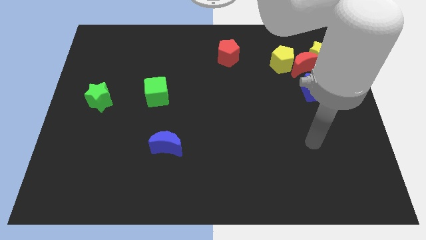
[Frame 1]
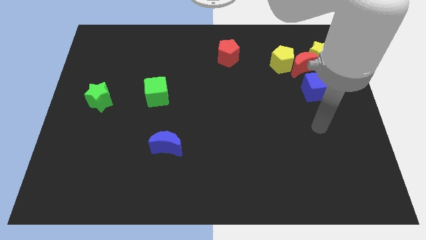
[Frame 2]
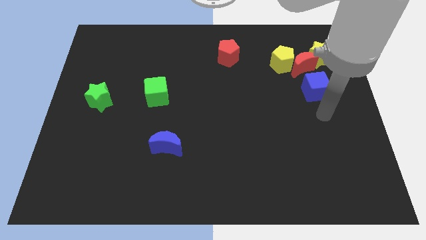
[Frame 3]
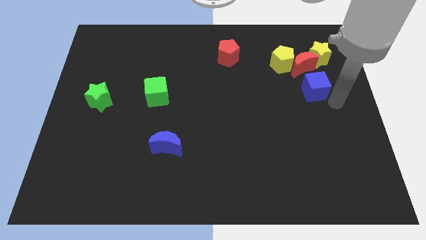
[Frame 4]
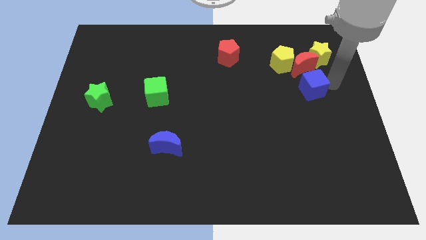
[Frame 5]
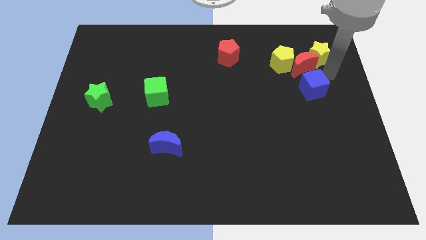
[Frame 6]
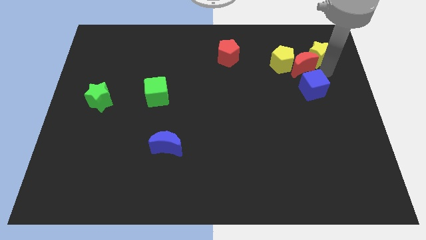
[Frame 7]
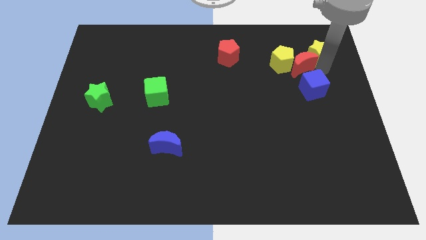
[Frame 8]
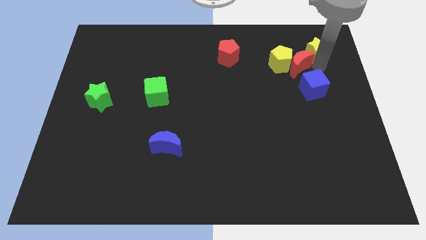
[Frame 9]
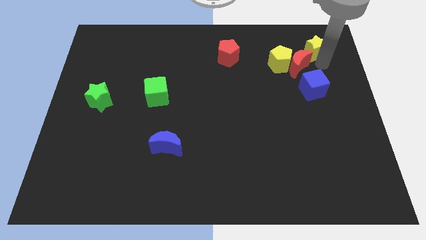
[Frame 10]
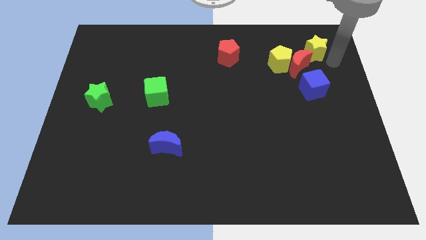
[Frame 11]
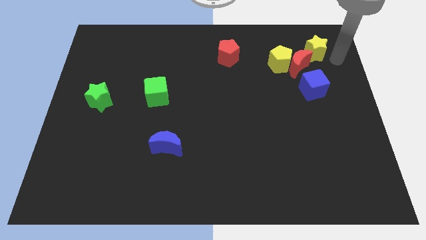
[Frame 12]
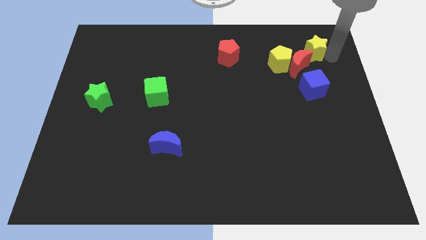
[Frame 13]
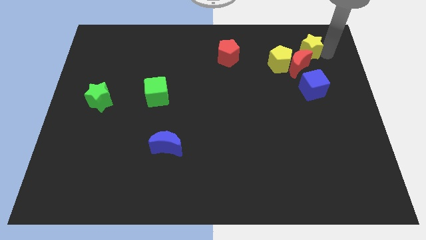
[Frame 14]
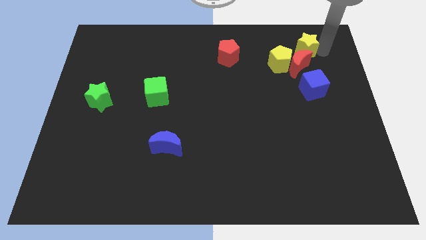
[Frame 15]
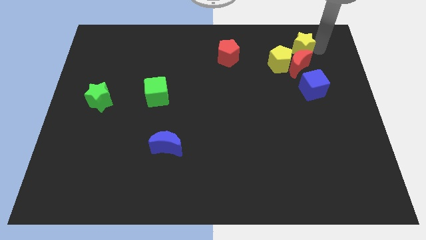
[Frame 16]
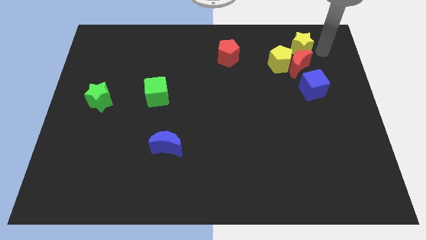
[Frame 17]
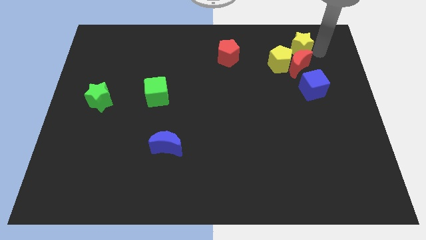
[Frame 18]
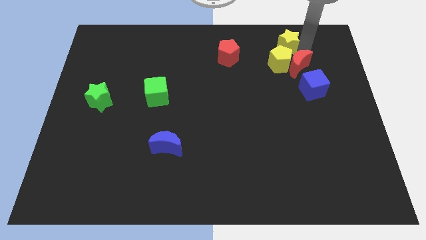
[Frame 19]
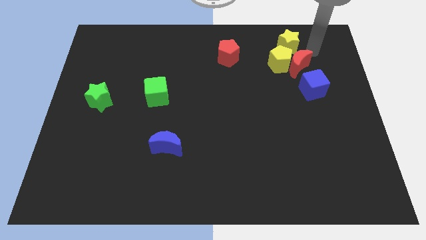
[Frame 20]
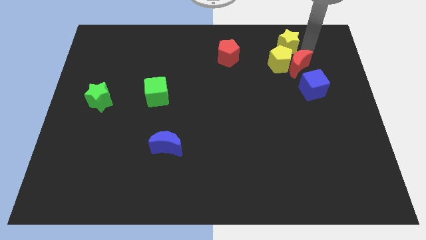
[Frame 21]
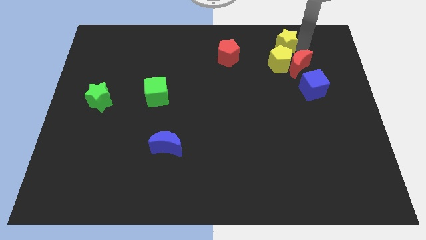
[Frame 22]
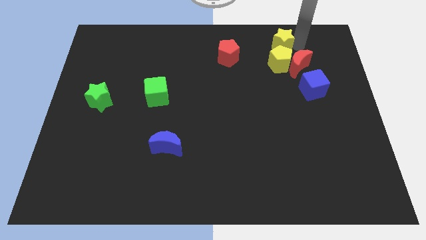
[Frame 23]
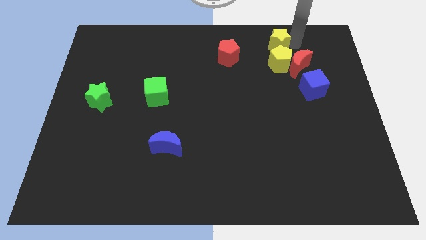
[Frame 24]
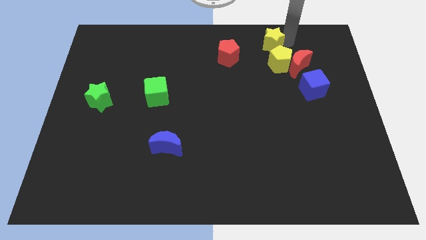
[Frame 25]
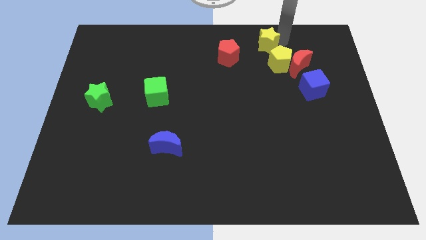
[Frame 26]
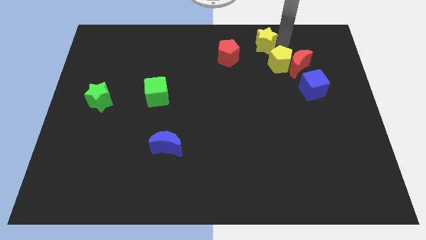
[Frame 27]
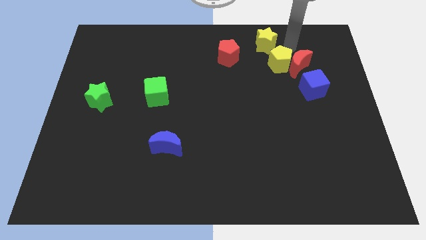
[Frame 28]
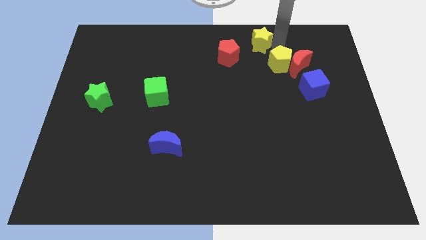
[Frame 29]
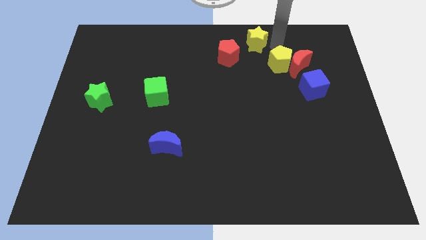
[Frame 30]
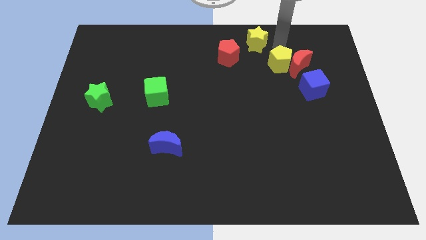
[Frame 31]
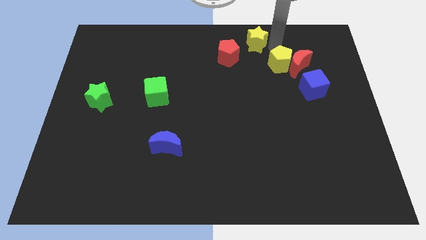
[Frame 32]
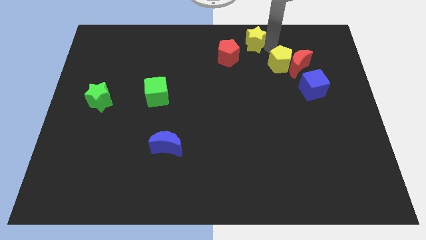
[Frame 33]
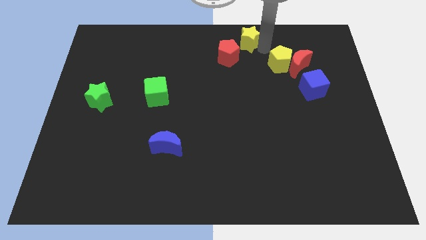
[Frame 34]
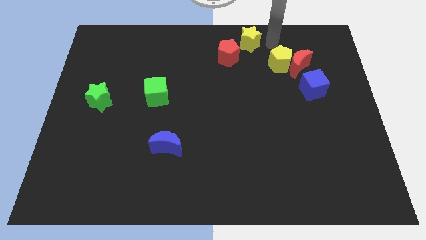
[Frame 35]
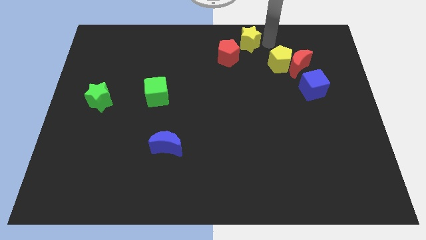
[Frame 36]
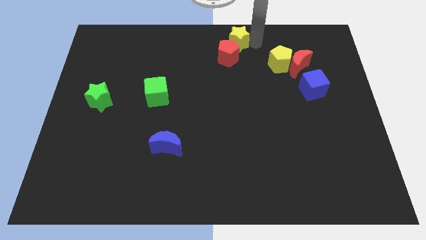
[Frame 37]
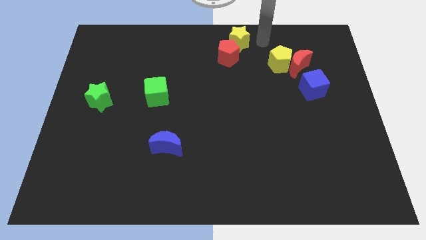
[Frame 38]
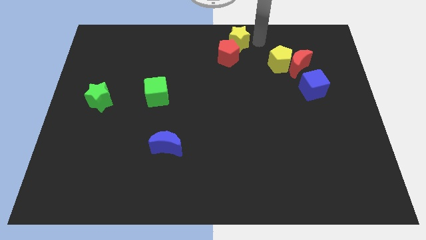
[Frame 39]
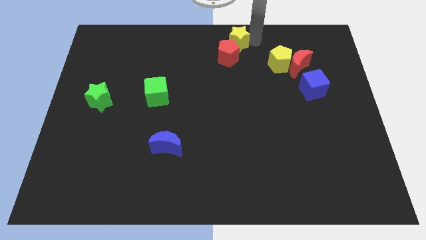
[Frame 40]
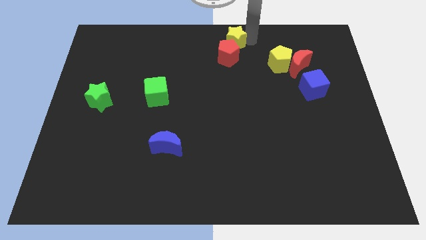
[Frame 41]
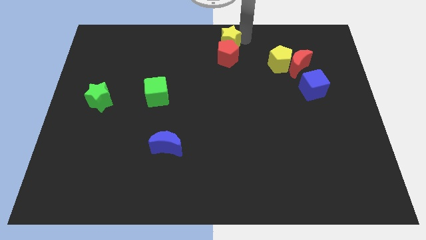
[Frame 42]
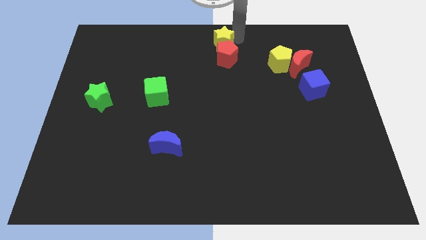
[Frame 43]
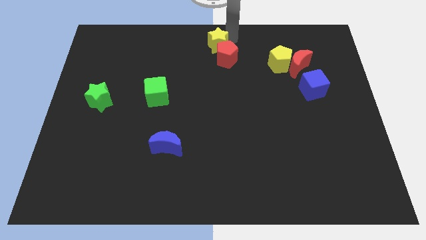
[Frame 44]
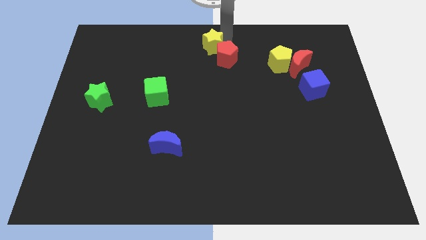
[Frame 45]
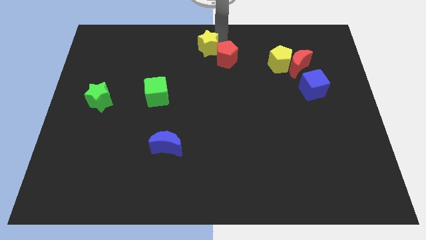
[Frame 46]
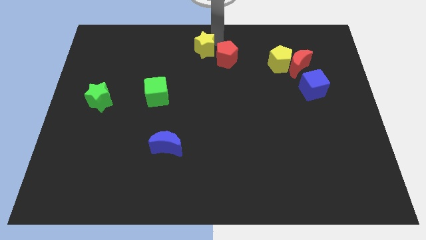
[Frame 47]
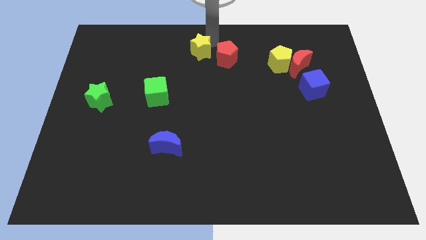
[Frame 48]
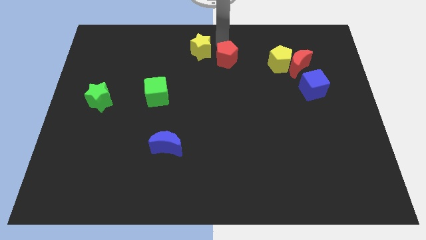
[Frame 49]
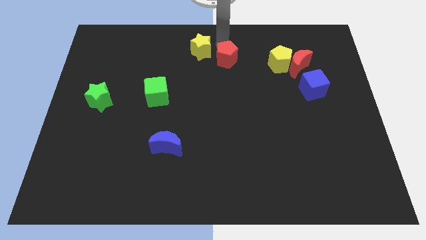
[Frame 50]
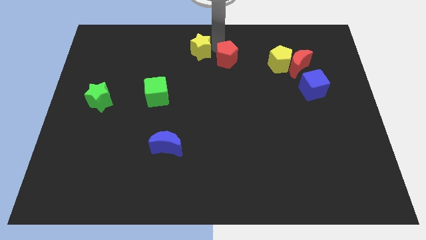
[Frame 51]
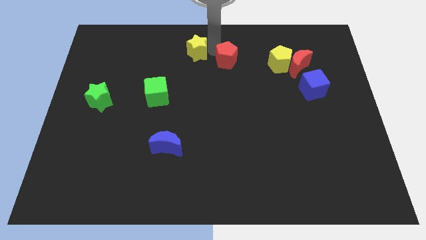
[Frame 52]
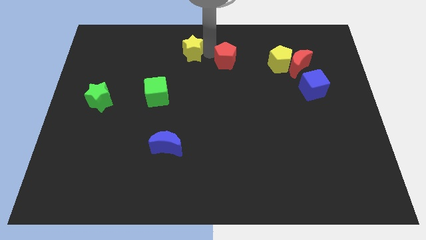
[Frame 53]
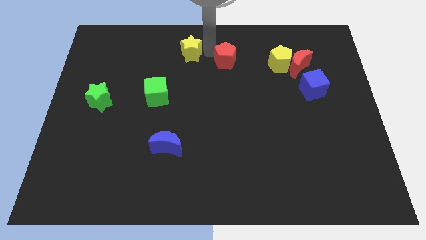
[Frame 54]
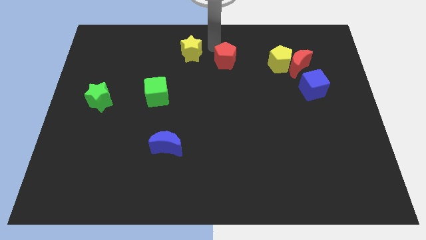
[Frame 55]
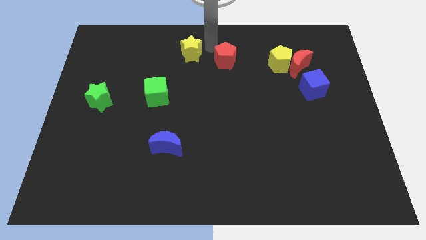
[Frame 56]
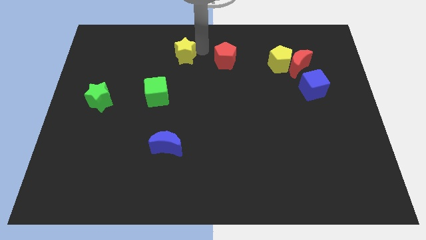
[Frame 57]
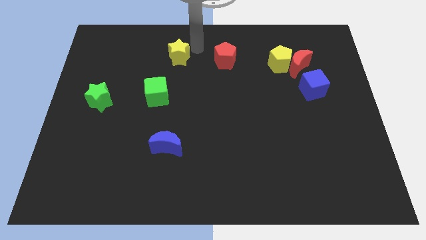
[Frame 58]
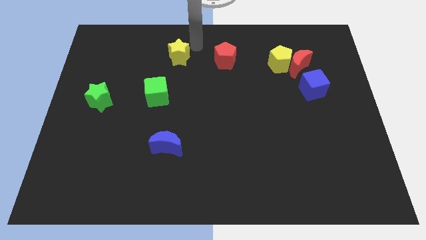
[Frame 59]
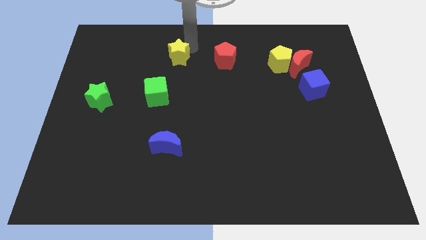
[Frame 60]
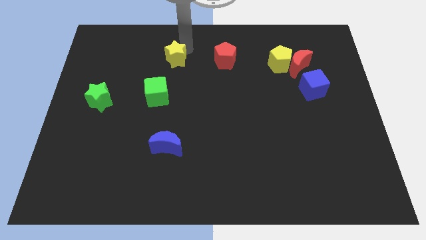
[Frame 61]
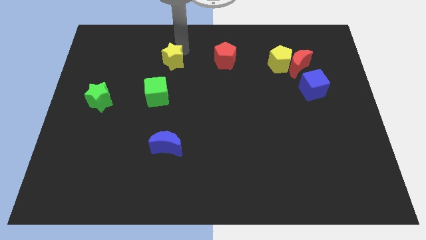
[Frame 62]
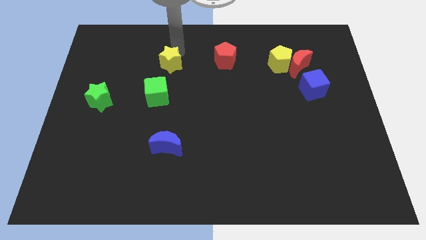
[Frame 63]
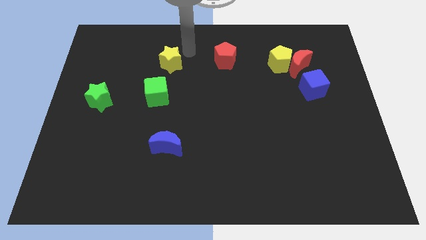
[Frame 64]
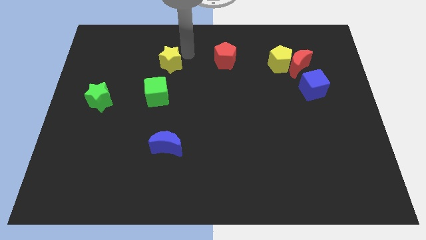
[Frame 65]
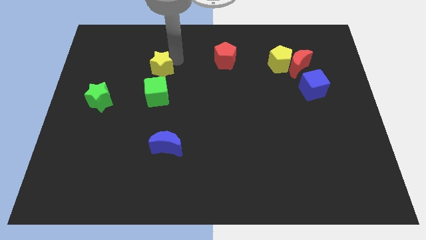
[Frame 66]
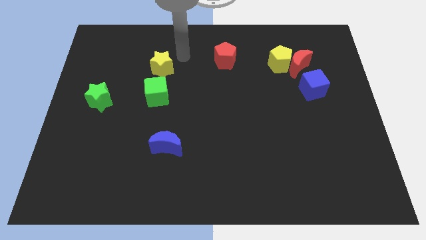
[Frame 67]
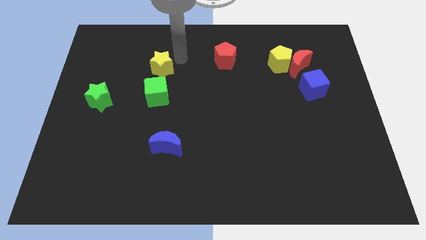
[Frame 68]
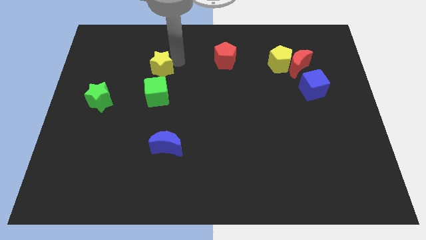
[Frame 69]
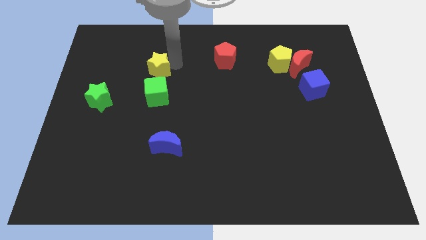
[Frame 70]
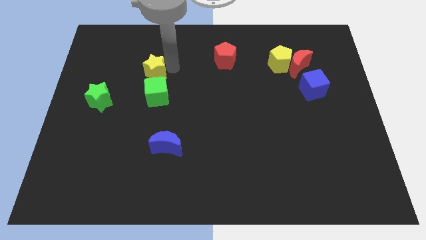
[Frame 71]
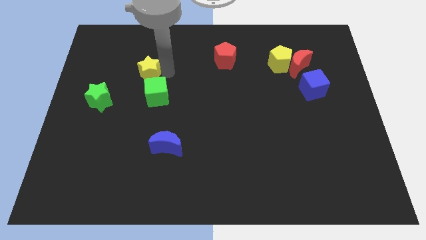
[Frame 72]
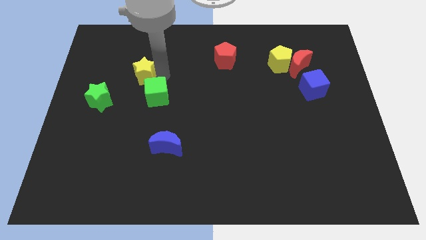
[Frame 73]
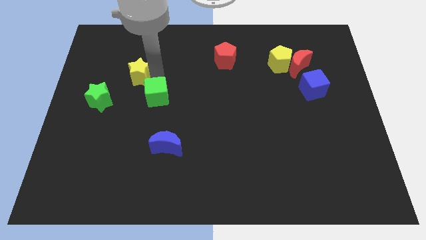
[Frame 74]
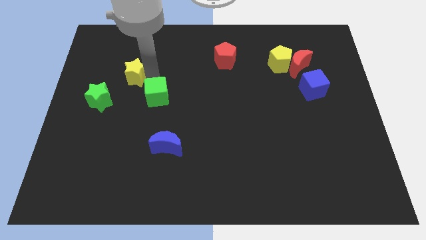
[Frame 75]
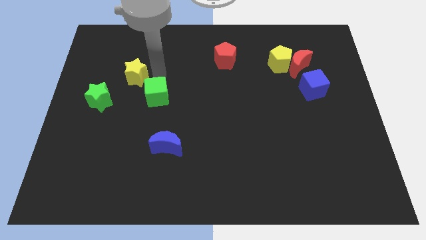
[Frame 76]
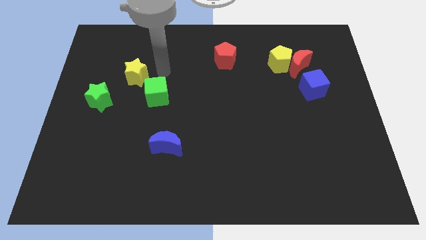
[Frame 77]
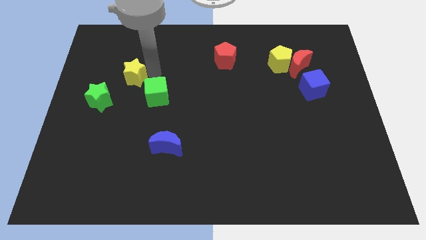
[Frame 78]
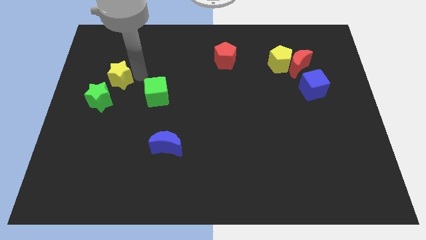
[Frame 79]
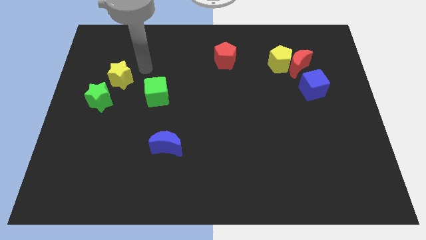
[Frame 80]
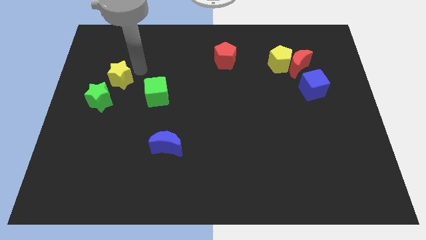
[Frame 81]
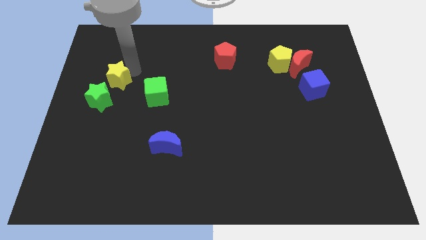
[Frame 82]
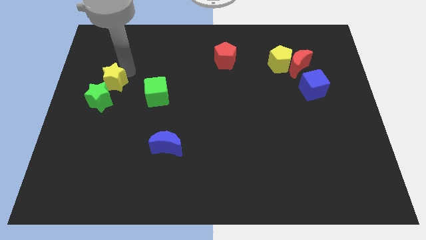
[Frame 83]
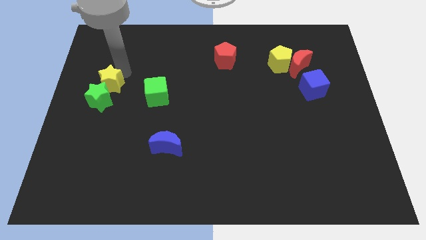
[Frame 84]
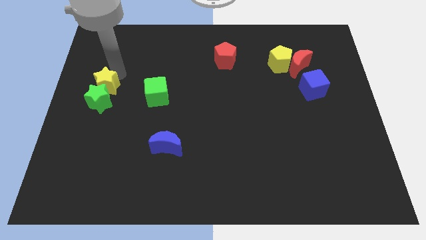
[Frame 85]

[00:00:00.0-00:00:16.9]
push the yellow star to the left side
